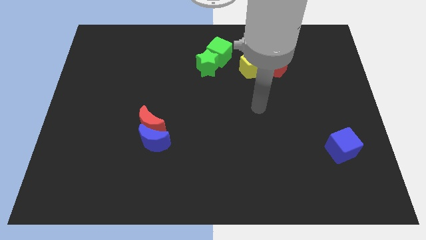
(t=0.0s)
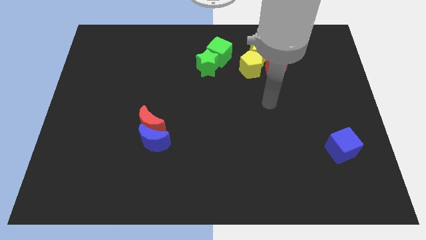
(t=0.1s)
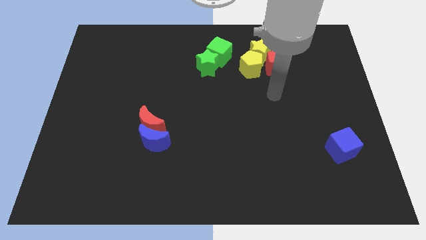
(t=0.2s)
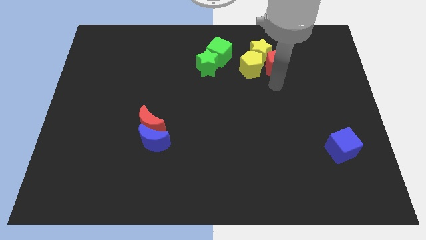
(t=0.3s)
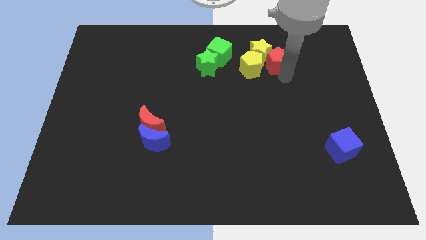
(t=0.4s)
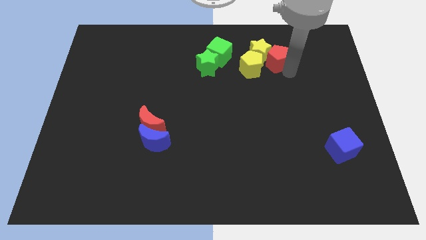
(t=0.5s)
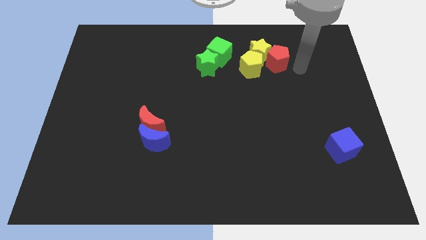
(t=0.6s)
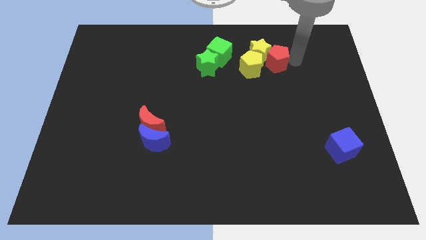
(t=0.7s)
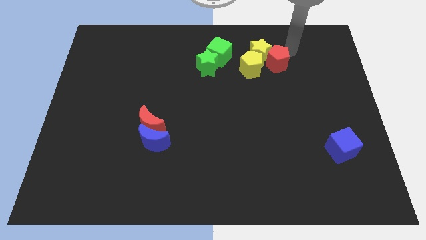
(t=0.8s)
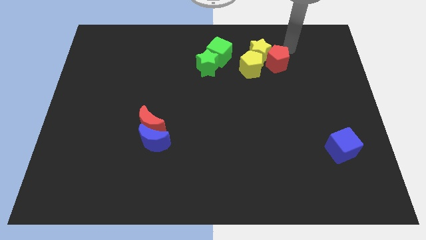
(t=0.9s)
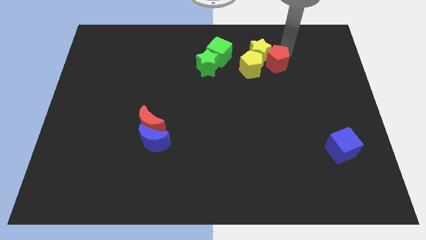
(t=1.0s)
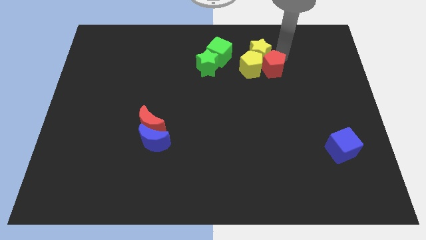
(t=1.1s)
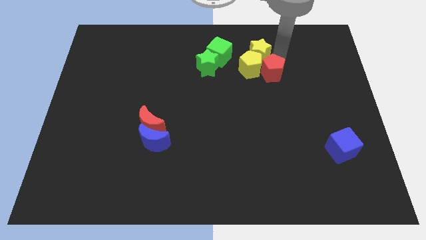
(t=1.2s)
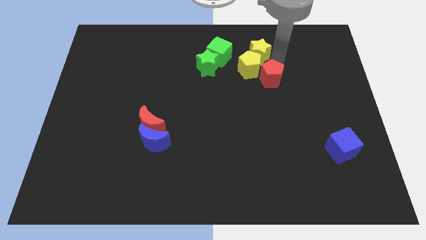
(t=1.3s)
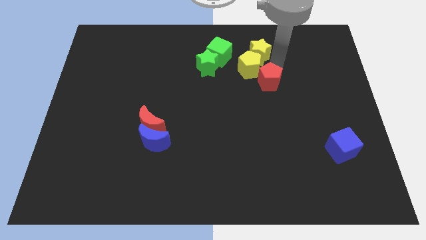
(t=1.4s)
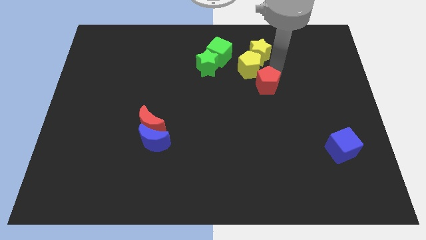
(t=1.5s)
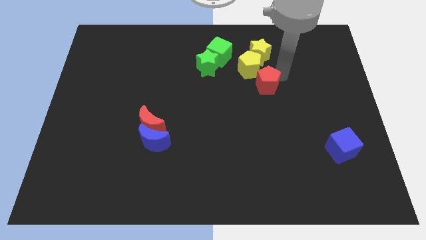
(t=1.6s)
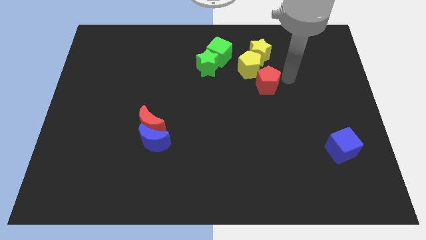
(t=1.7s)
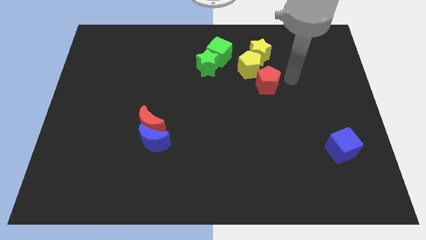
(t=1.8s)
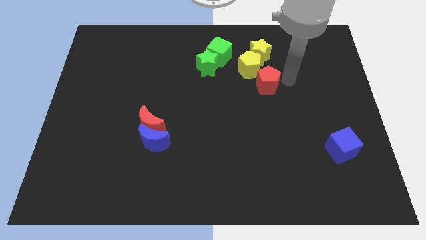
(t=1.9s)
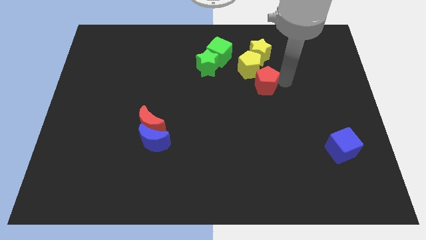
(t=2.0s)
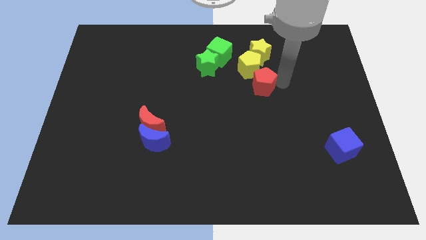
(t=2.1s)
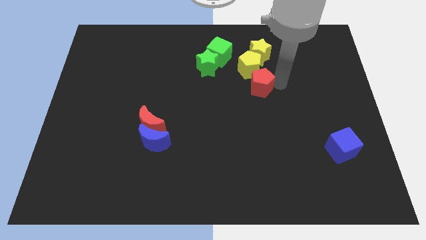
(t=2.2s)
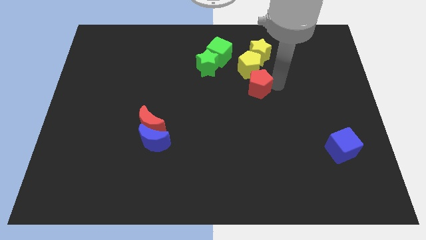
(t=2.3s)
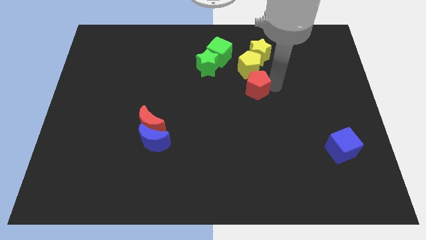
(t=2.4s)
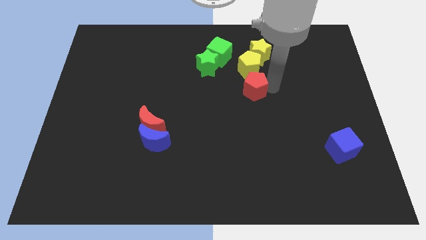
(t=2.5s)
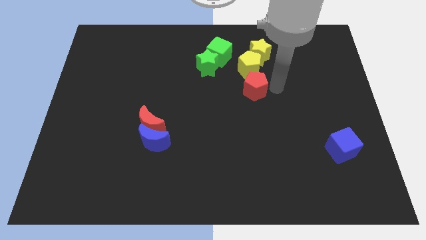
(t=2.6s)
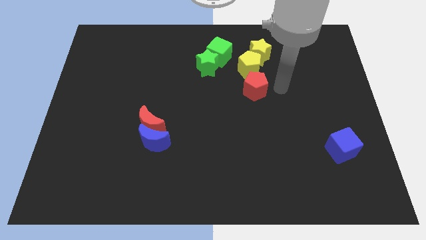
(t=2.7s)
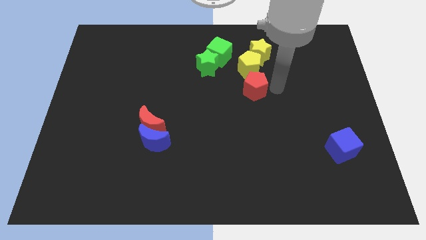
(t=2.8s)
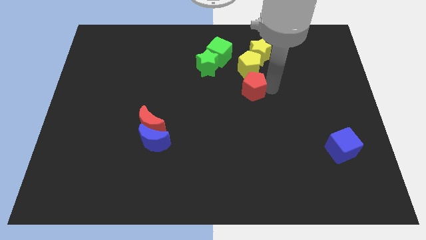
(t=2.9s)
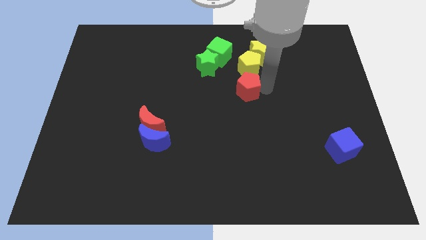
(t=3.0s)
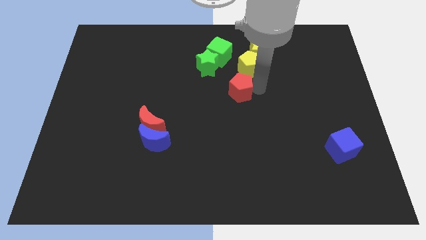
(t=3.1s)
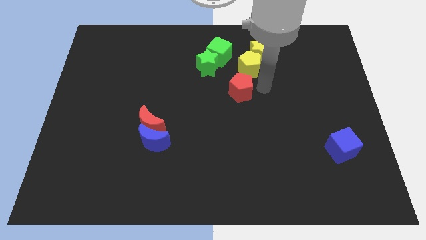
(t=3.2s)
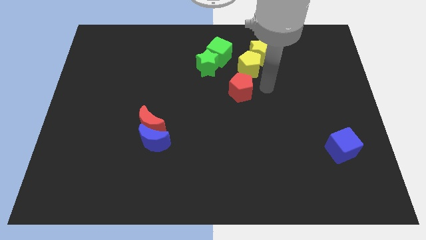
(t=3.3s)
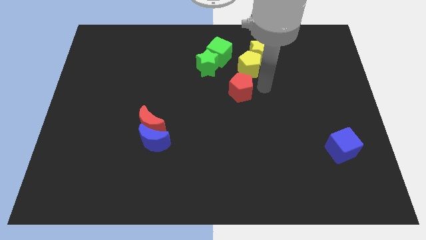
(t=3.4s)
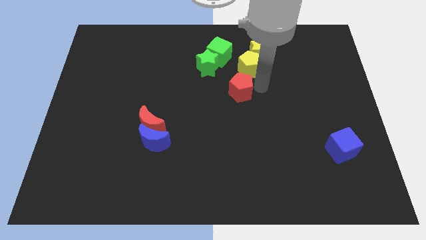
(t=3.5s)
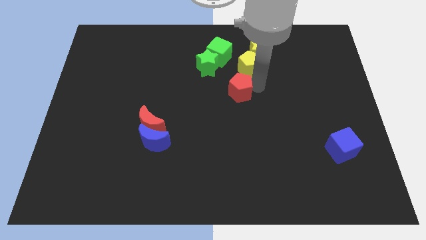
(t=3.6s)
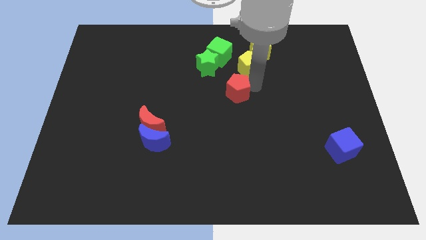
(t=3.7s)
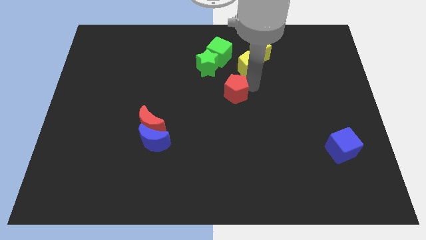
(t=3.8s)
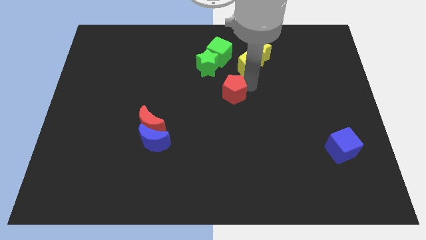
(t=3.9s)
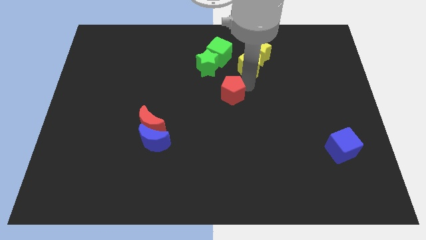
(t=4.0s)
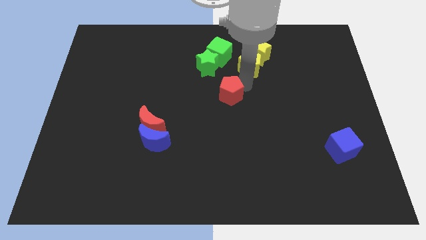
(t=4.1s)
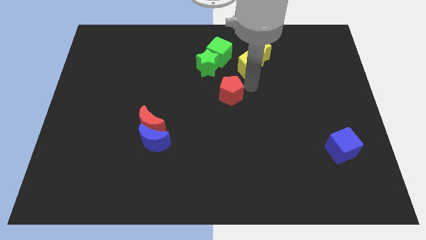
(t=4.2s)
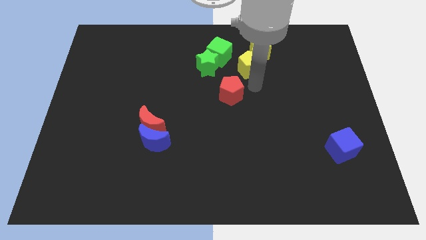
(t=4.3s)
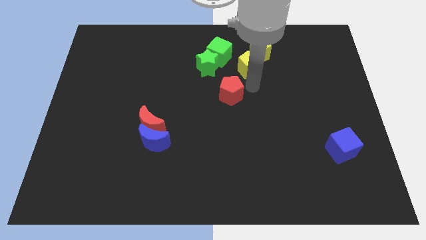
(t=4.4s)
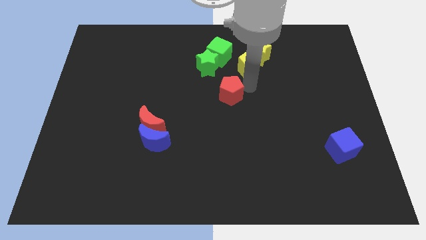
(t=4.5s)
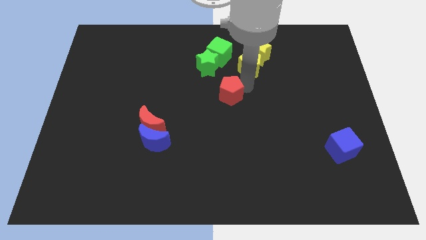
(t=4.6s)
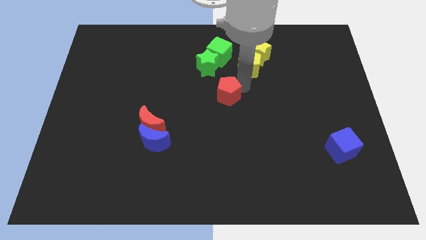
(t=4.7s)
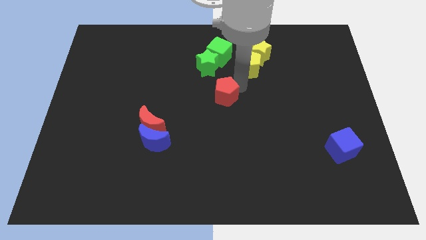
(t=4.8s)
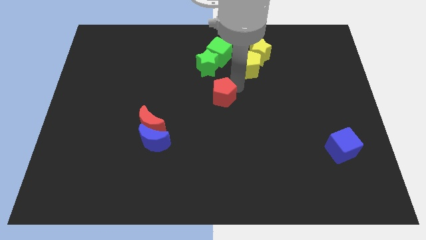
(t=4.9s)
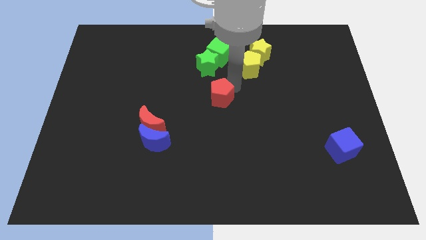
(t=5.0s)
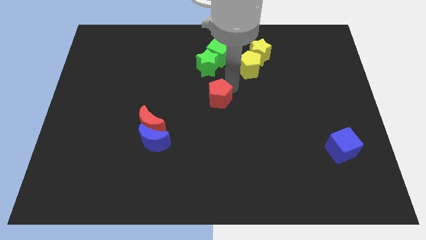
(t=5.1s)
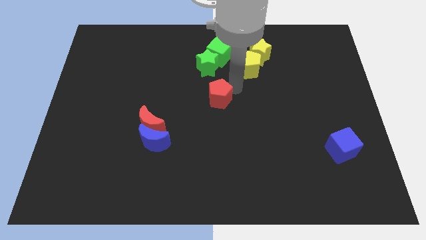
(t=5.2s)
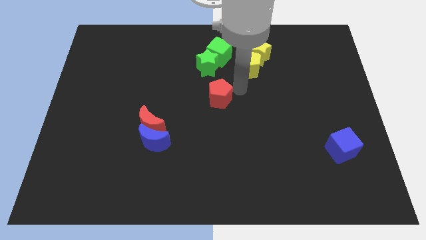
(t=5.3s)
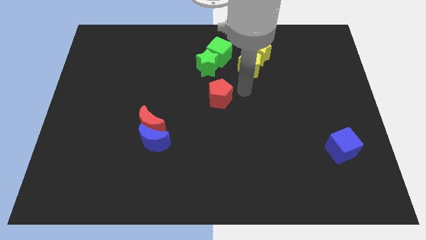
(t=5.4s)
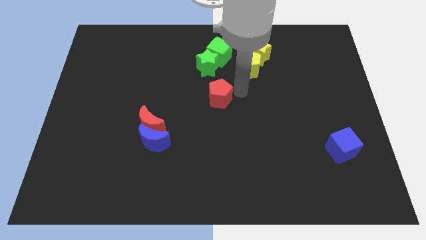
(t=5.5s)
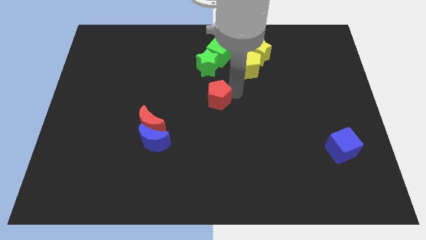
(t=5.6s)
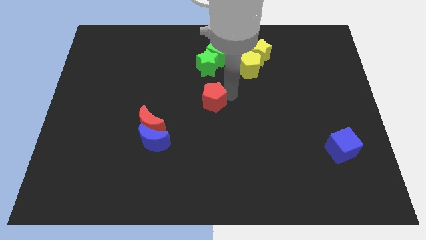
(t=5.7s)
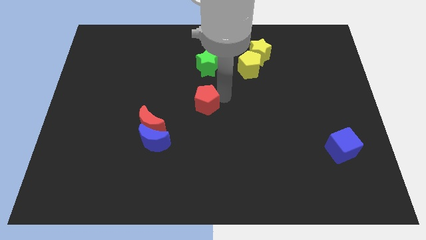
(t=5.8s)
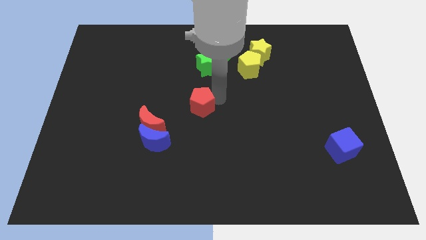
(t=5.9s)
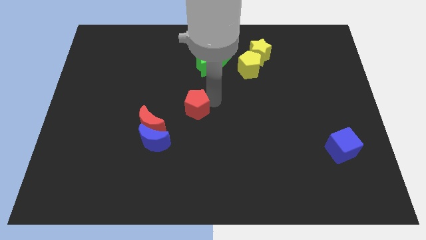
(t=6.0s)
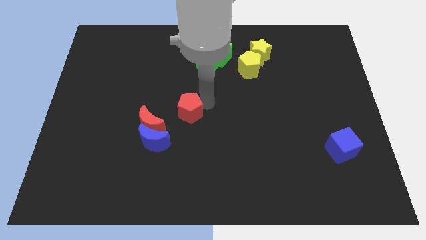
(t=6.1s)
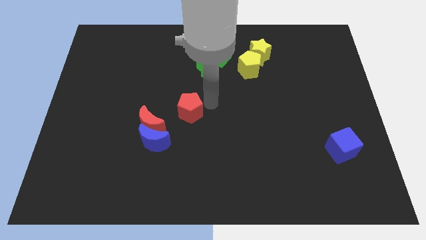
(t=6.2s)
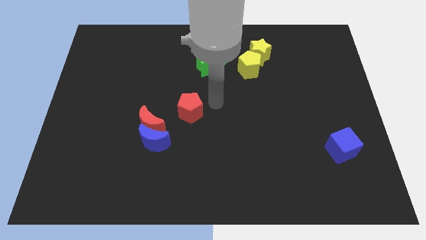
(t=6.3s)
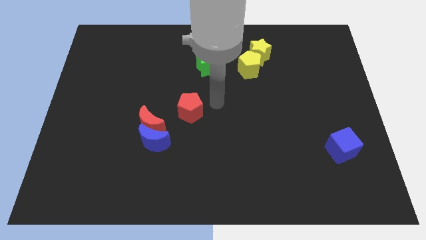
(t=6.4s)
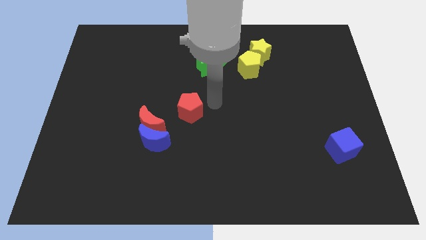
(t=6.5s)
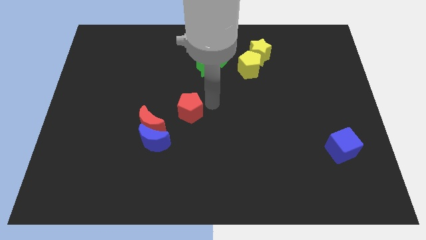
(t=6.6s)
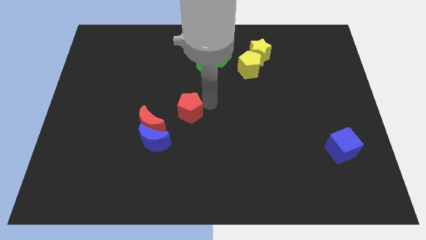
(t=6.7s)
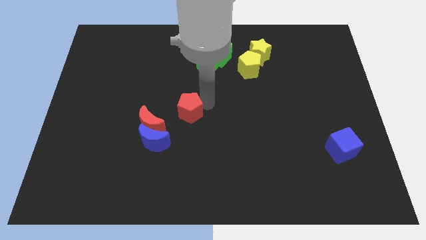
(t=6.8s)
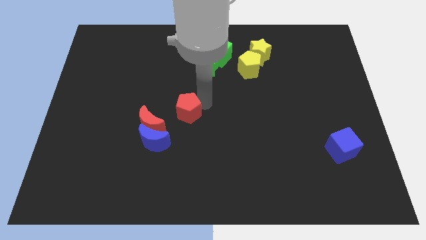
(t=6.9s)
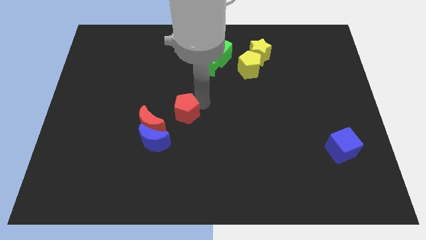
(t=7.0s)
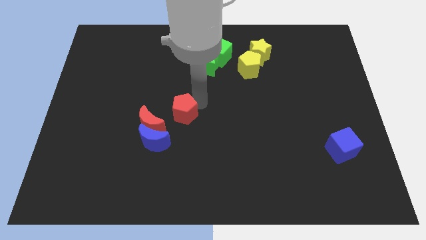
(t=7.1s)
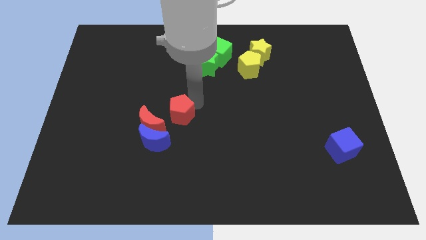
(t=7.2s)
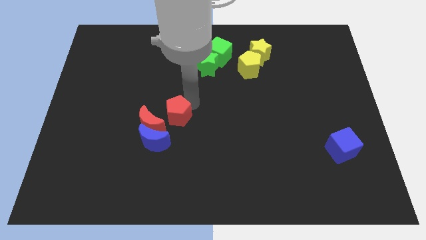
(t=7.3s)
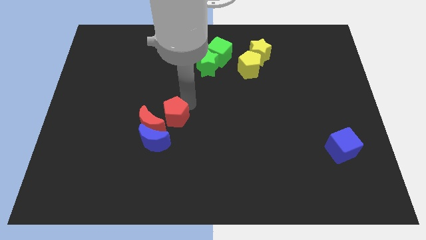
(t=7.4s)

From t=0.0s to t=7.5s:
put the red pentagon towards the red moon

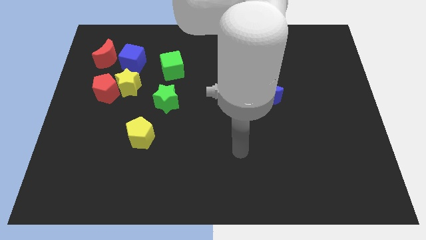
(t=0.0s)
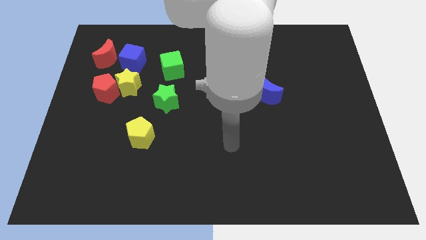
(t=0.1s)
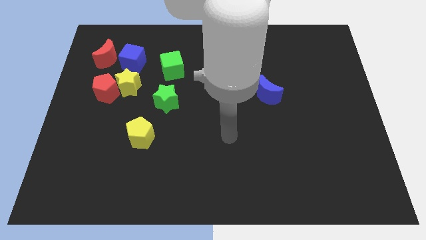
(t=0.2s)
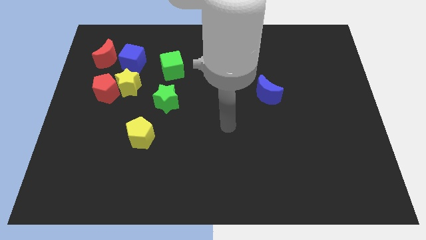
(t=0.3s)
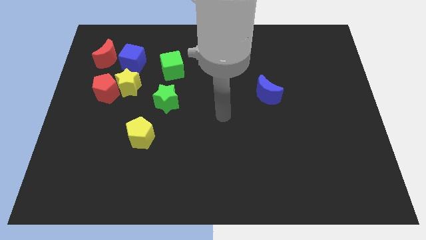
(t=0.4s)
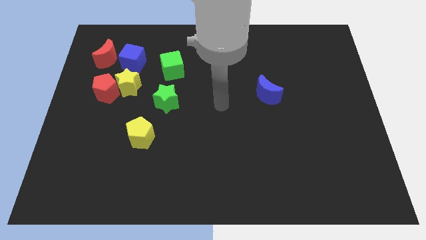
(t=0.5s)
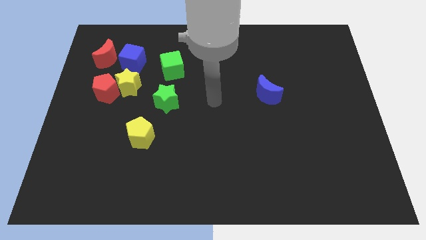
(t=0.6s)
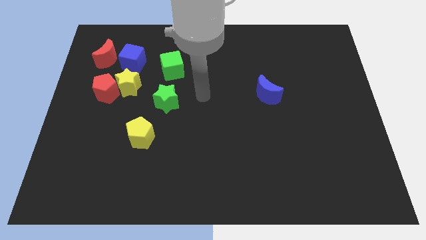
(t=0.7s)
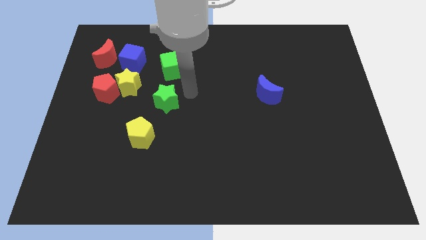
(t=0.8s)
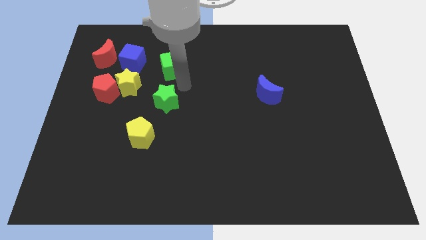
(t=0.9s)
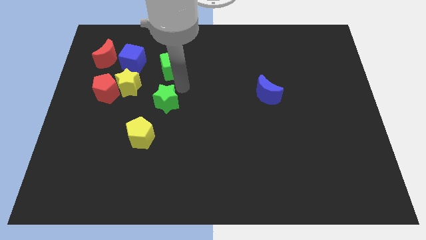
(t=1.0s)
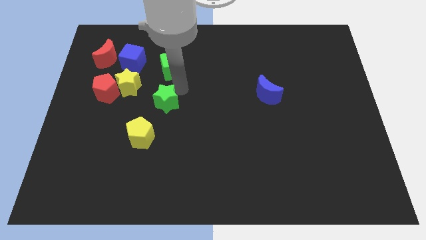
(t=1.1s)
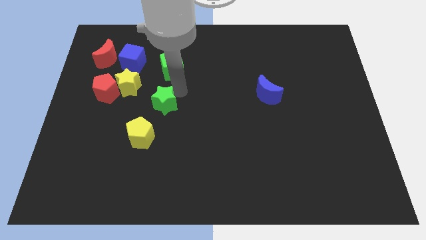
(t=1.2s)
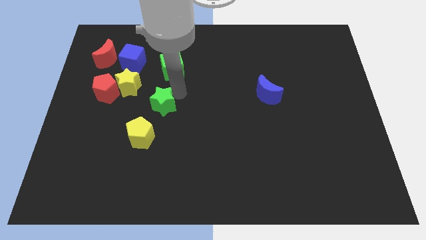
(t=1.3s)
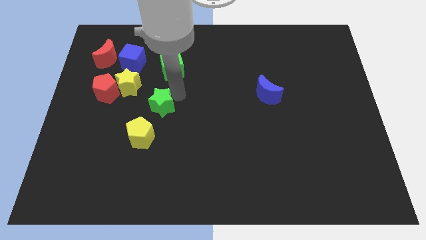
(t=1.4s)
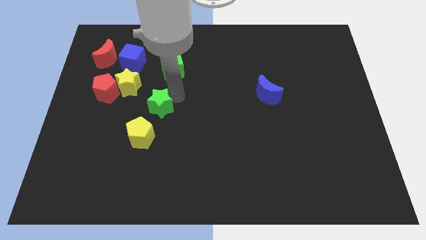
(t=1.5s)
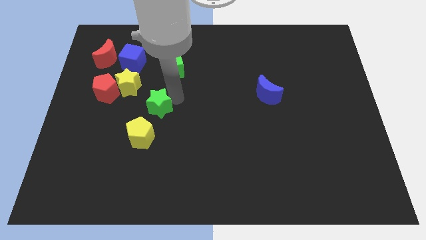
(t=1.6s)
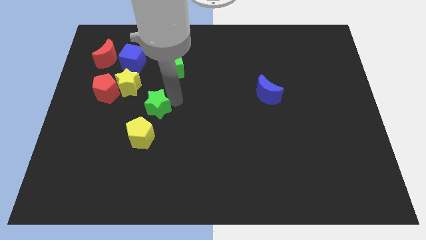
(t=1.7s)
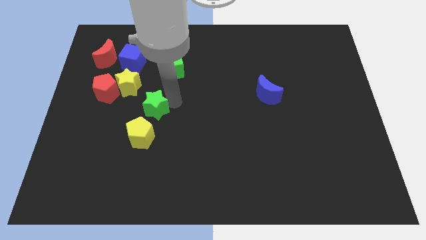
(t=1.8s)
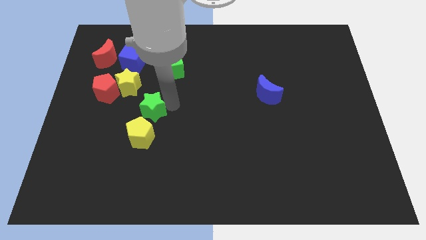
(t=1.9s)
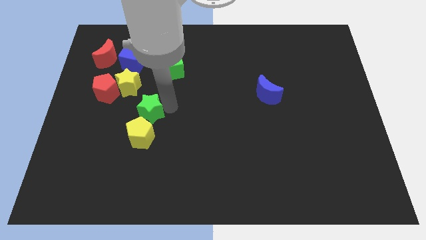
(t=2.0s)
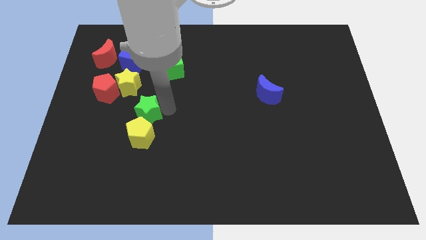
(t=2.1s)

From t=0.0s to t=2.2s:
put the green star next to the yellow pentagon
